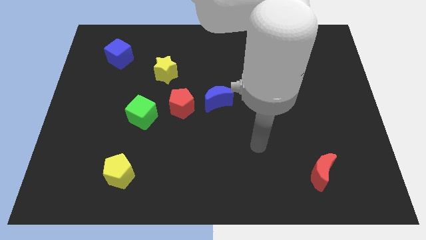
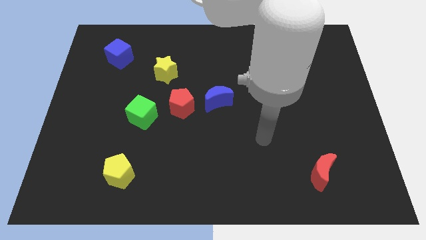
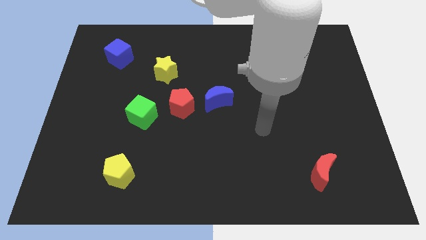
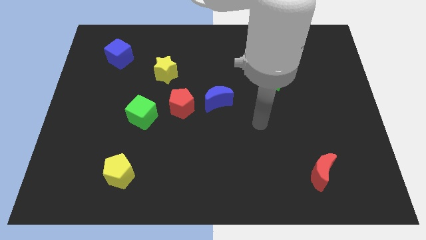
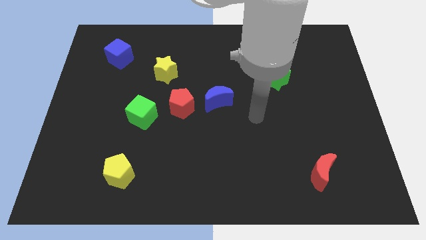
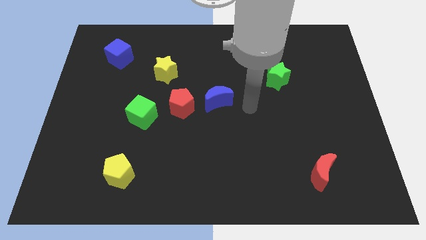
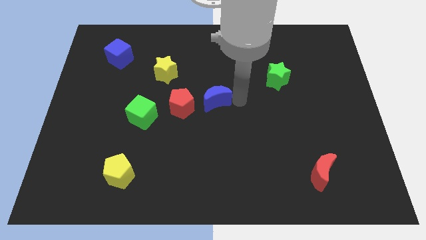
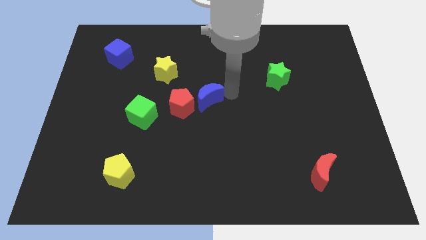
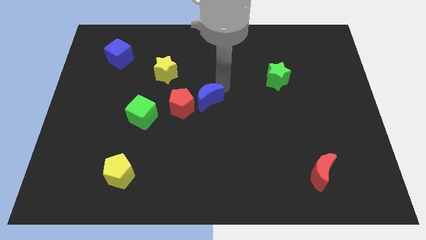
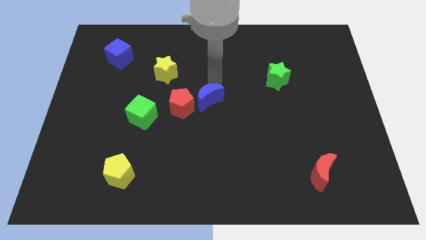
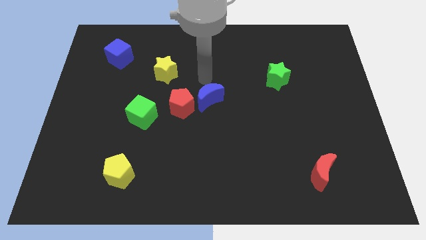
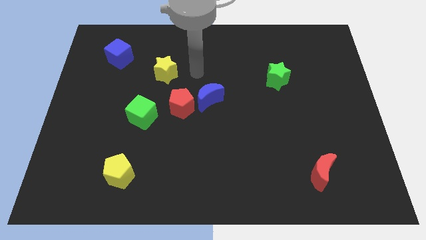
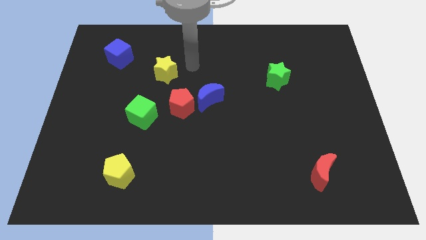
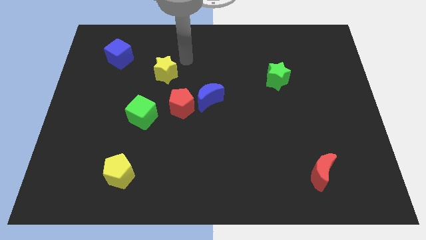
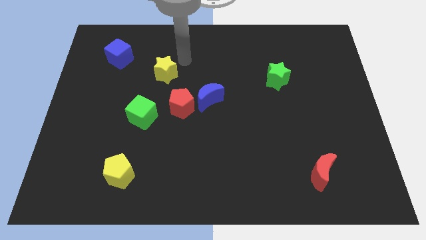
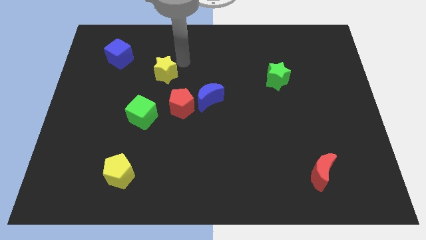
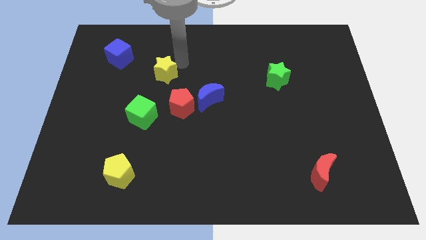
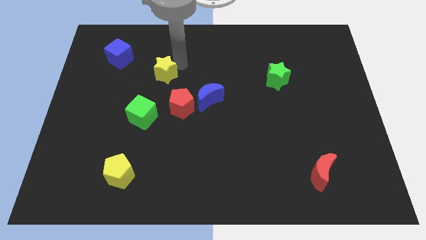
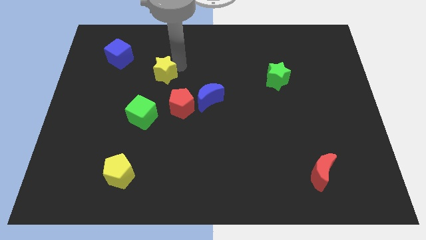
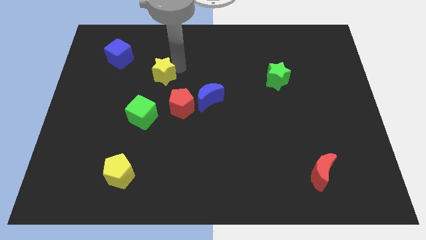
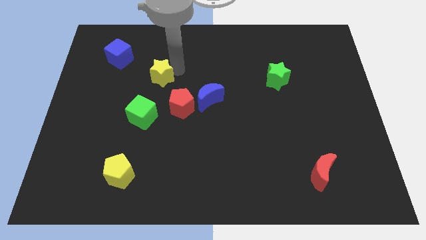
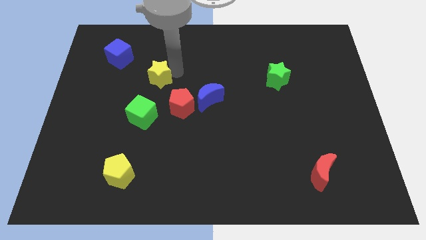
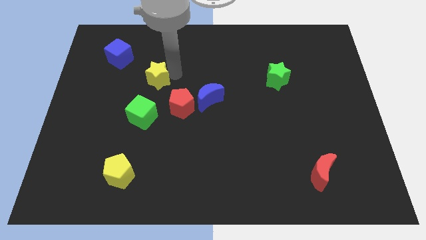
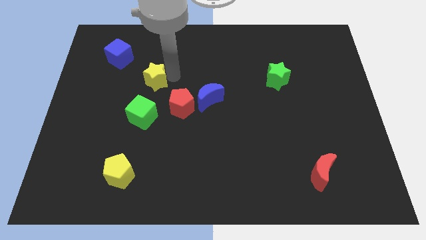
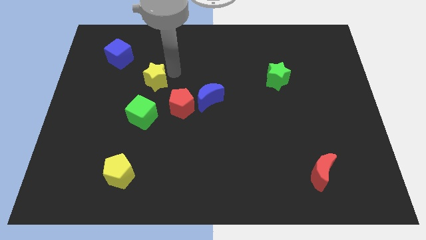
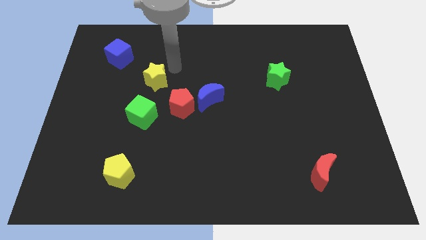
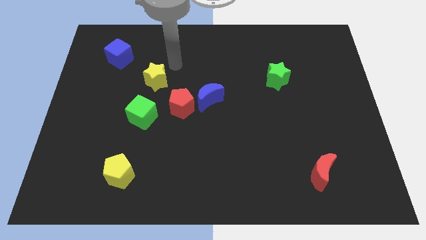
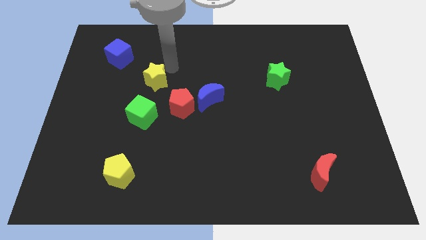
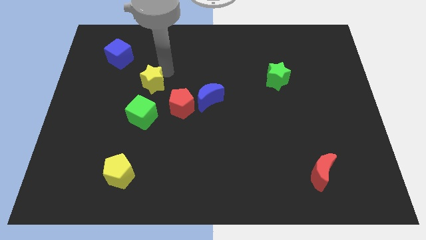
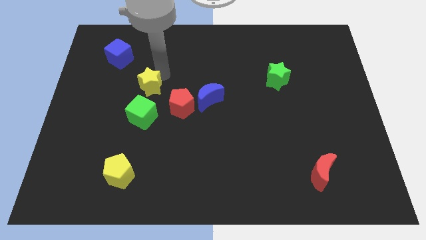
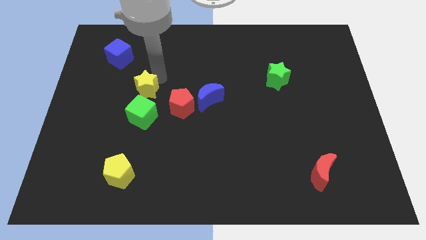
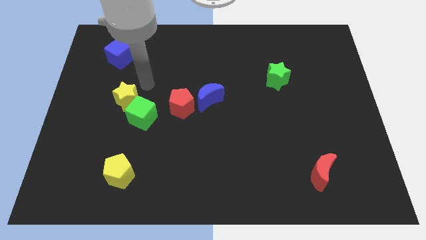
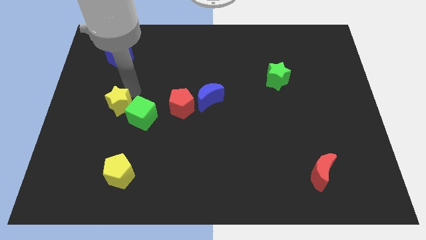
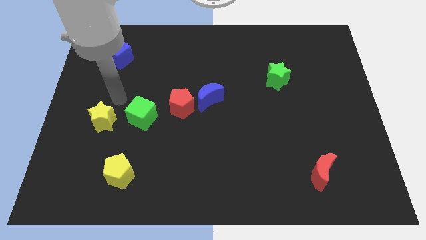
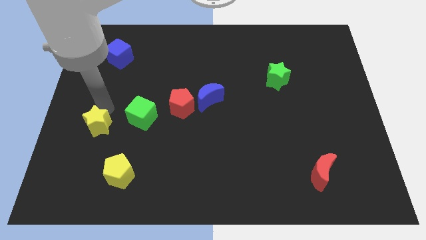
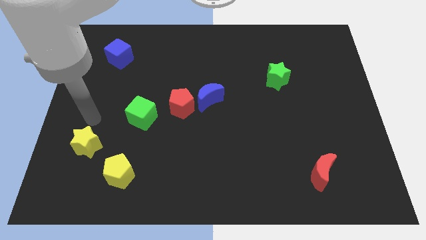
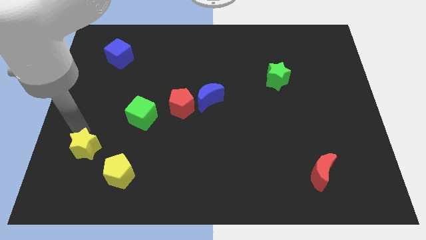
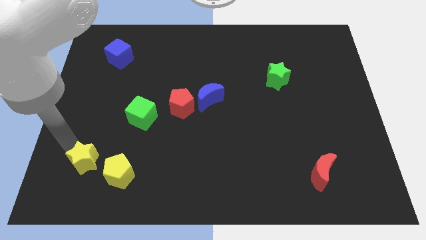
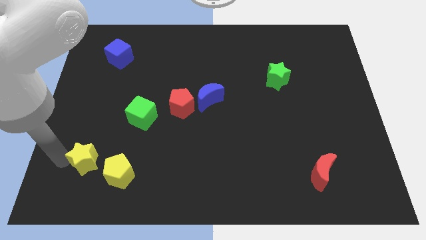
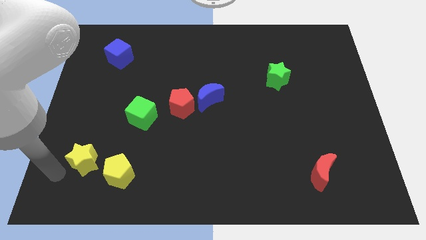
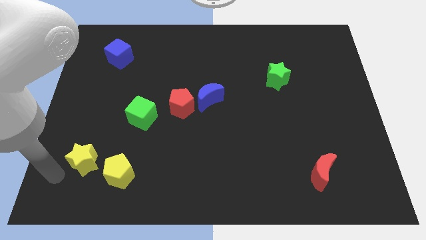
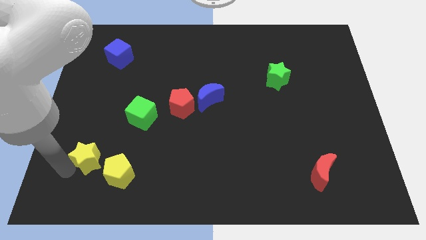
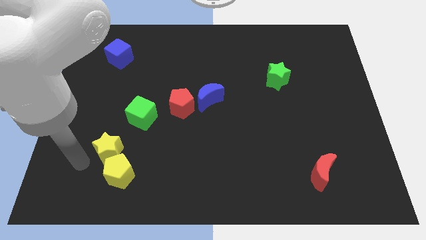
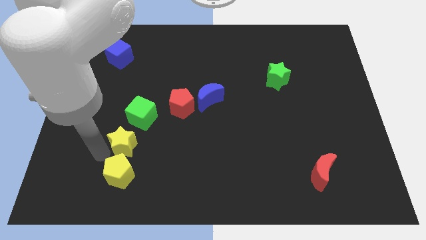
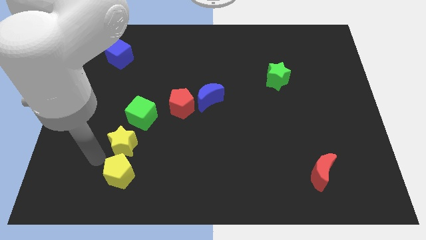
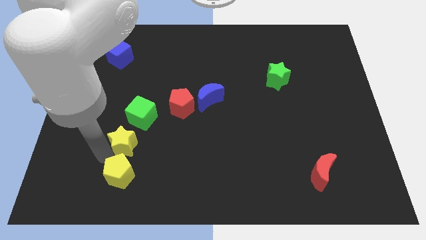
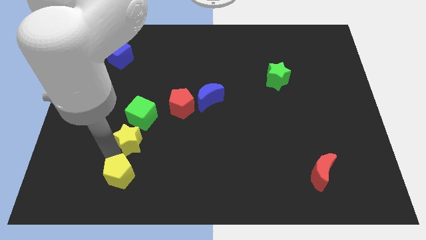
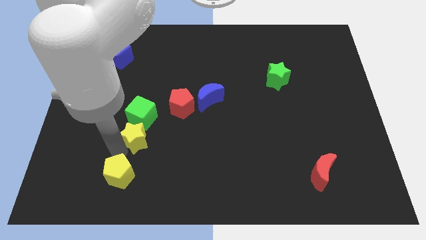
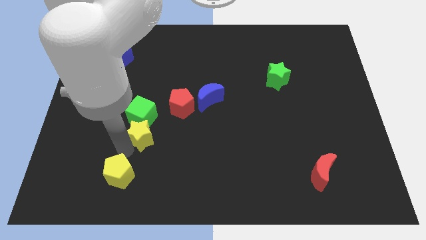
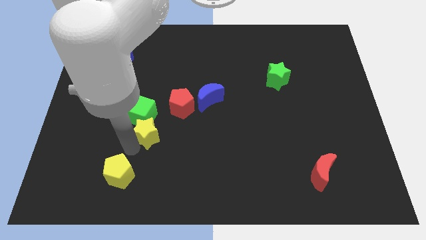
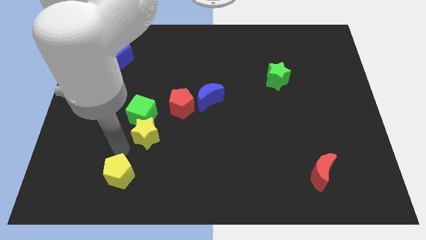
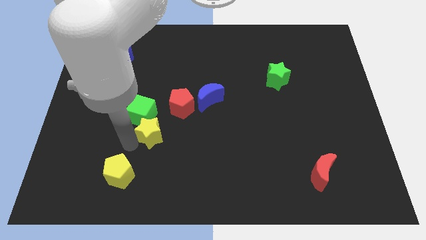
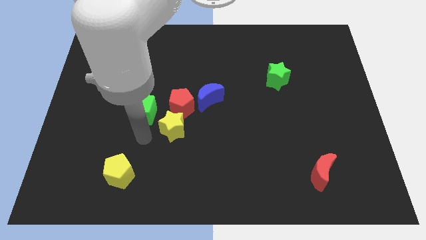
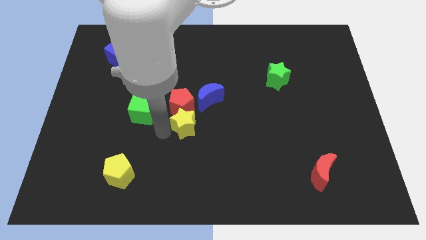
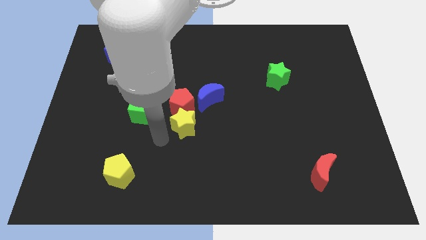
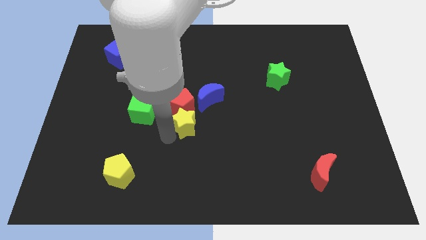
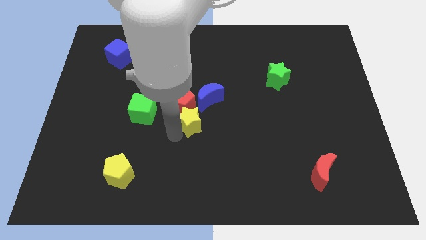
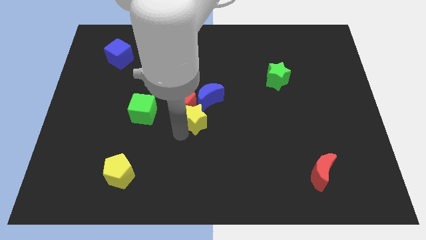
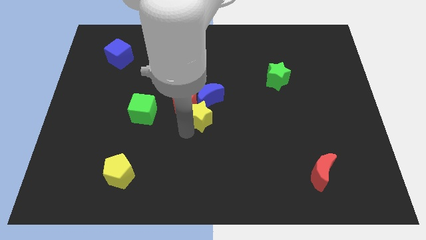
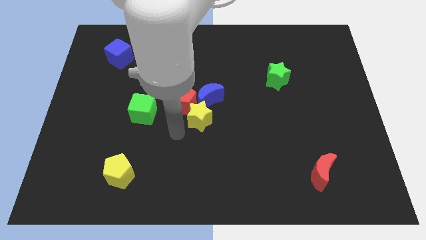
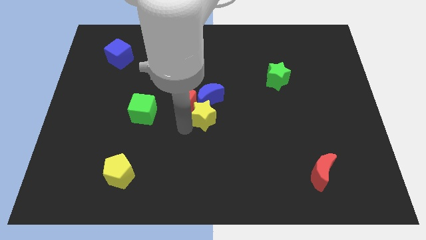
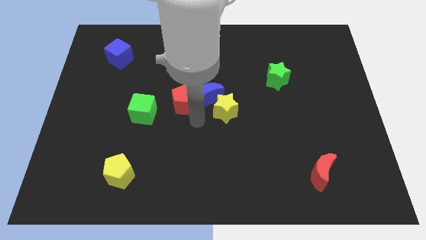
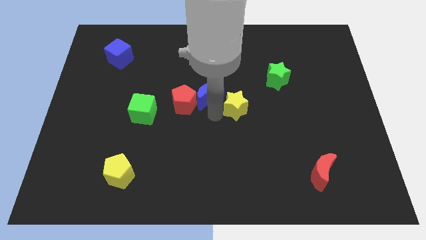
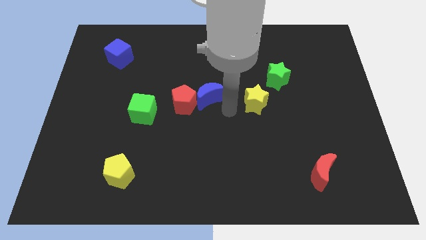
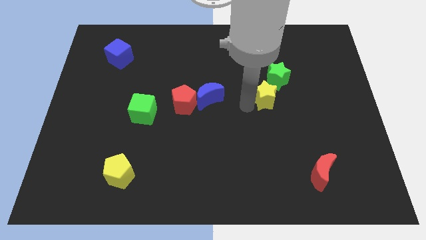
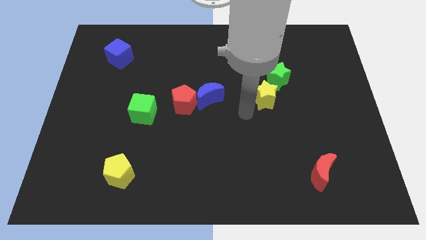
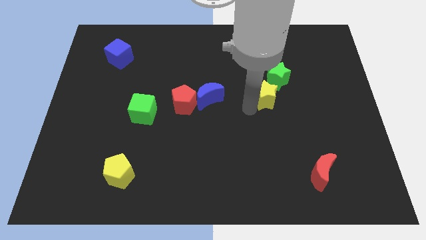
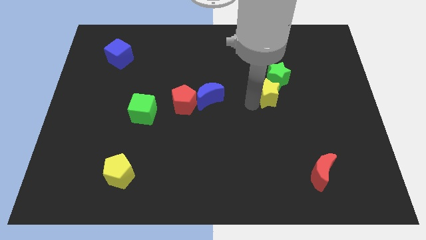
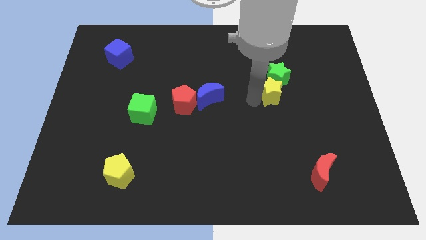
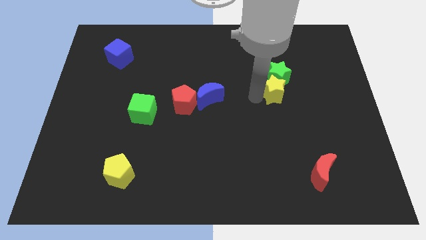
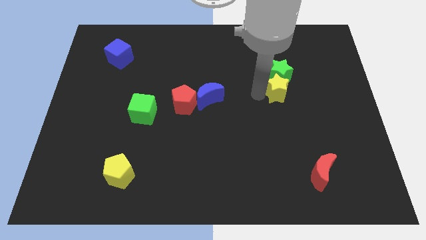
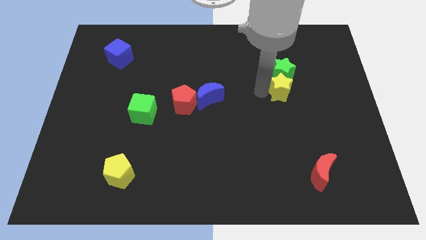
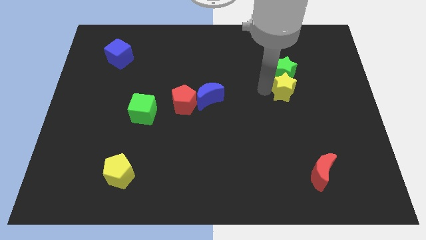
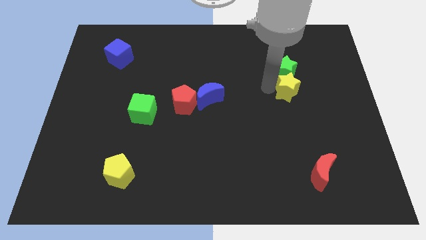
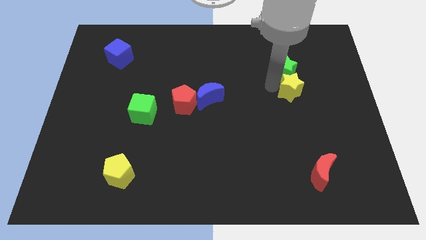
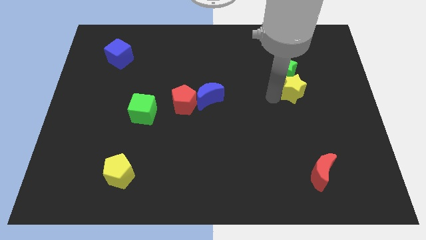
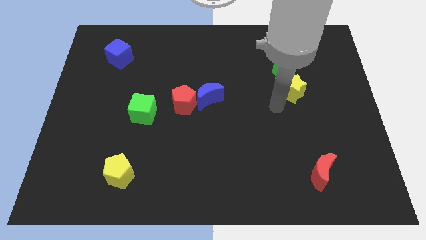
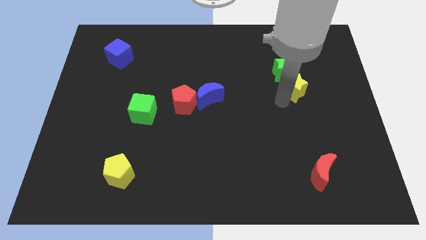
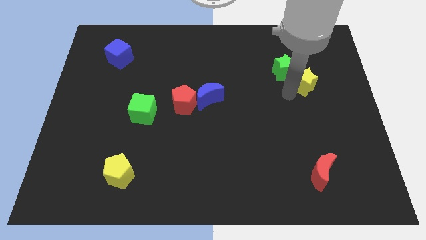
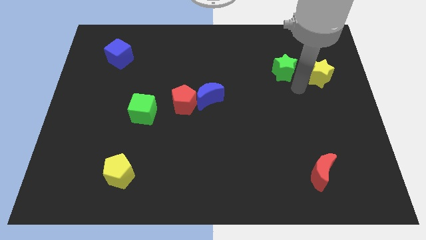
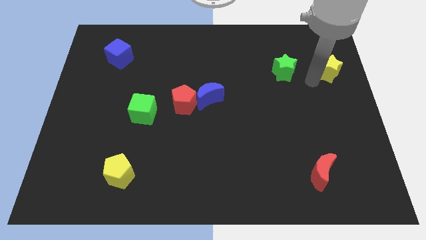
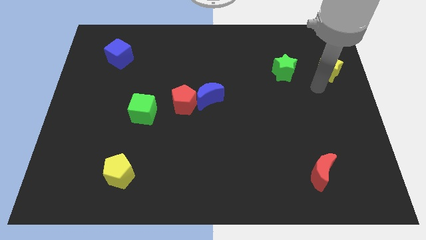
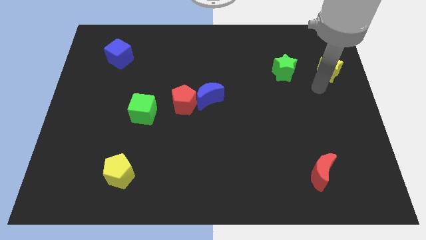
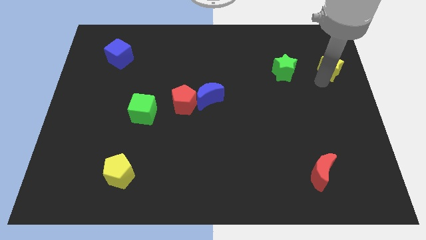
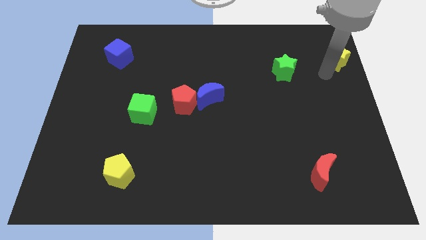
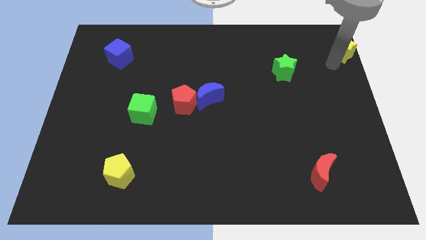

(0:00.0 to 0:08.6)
move the yellow star to the upper right corner
